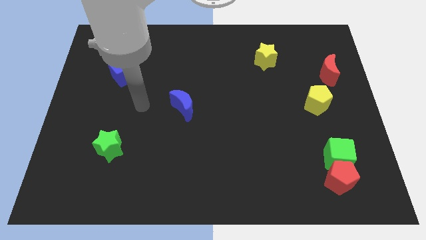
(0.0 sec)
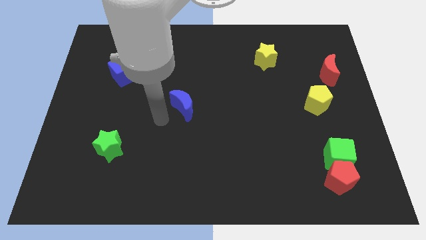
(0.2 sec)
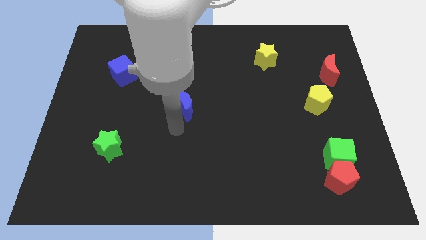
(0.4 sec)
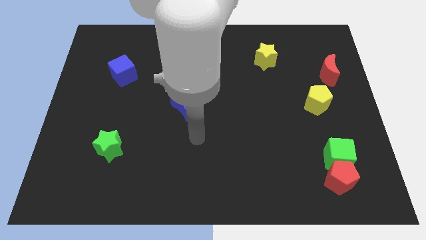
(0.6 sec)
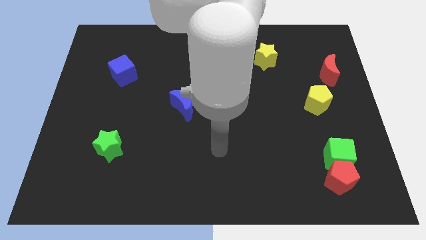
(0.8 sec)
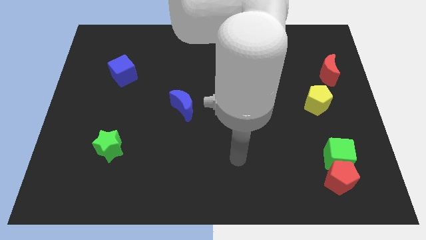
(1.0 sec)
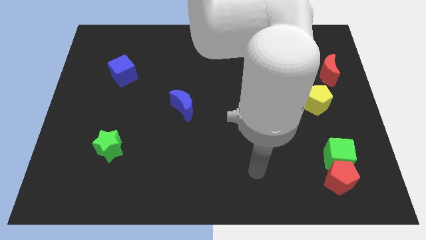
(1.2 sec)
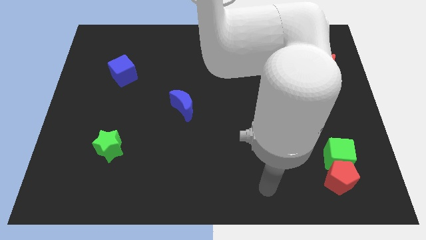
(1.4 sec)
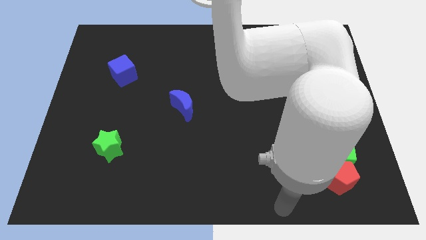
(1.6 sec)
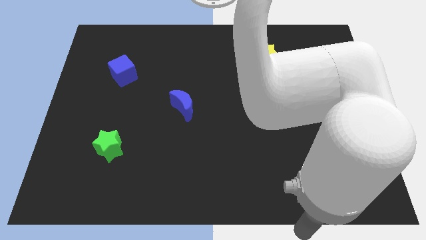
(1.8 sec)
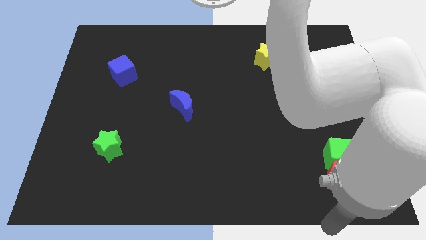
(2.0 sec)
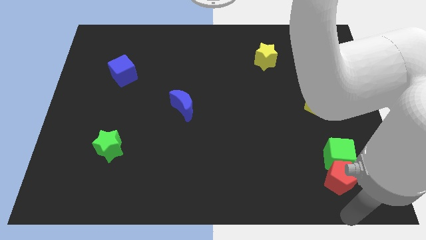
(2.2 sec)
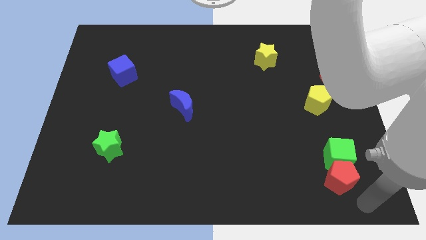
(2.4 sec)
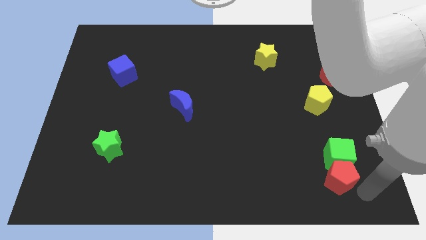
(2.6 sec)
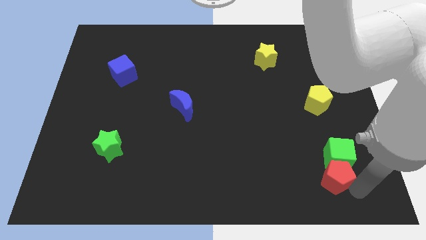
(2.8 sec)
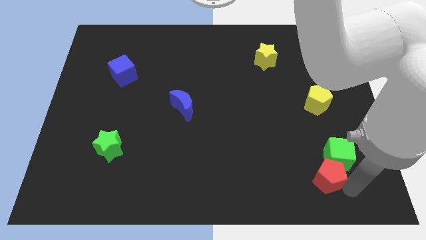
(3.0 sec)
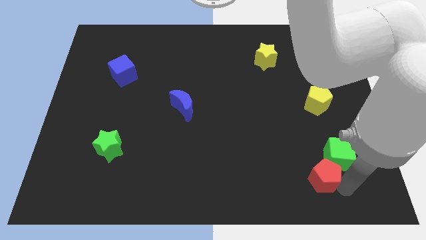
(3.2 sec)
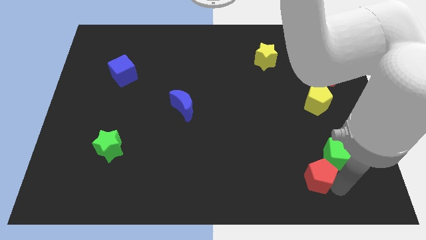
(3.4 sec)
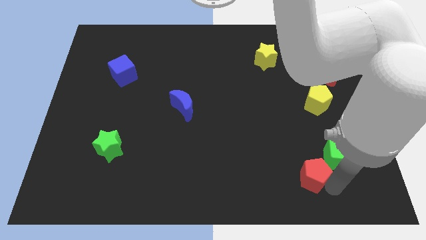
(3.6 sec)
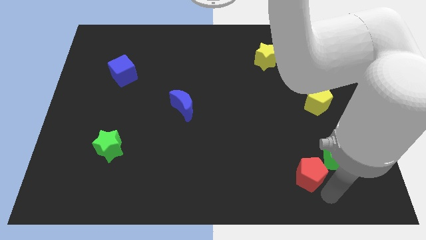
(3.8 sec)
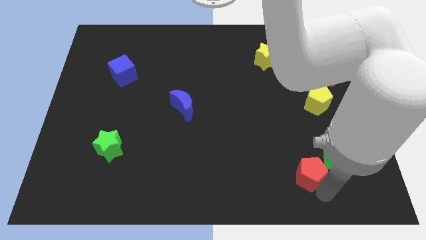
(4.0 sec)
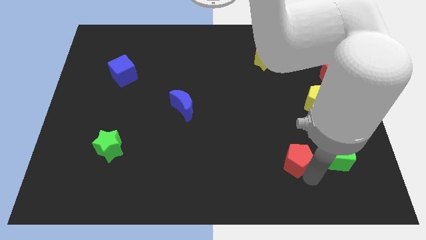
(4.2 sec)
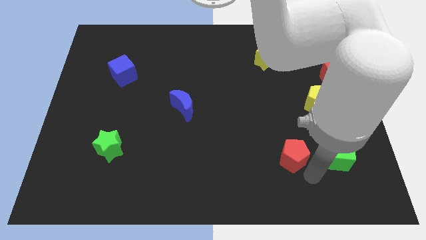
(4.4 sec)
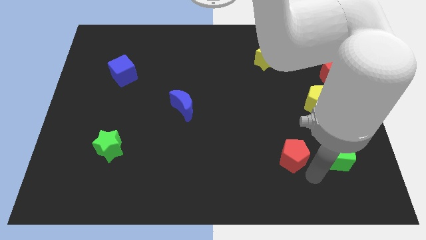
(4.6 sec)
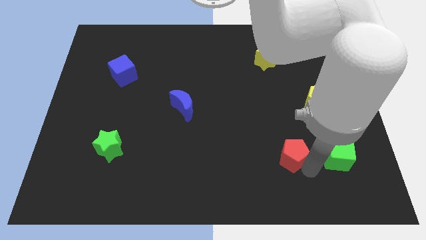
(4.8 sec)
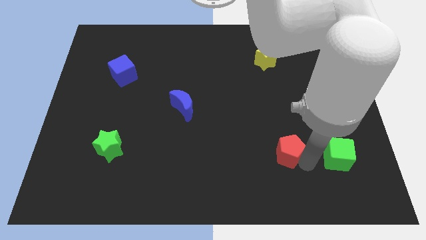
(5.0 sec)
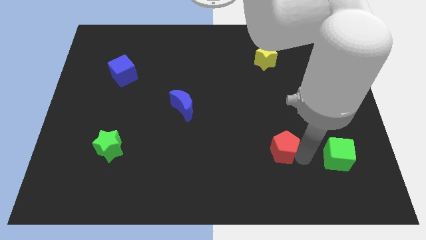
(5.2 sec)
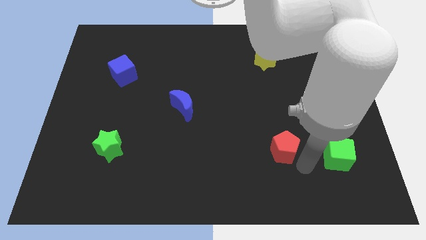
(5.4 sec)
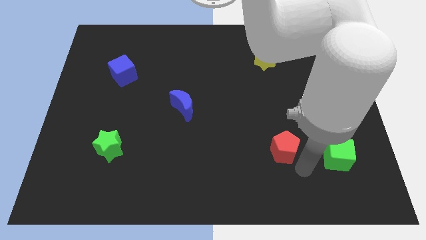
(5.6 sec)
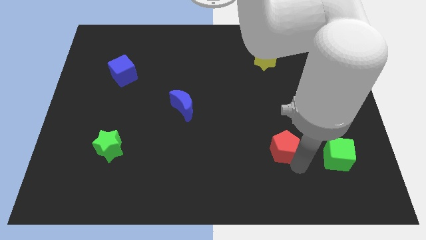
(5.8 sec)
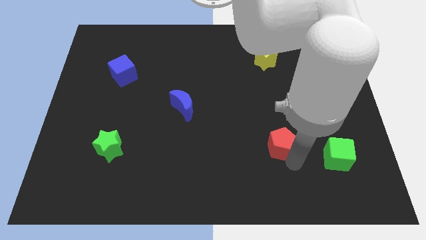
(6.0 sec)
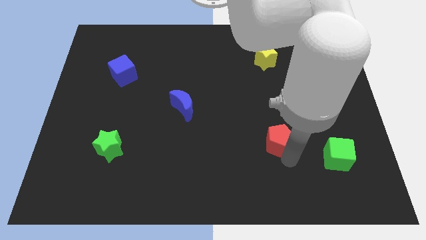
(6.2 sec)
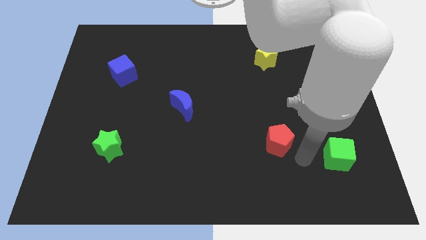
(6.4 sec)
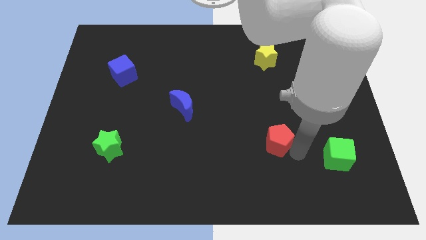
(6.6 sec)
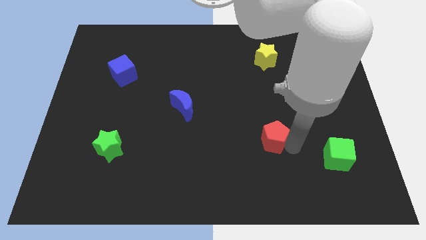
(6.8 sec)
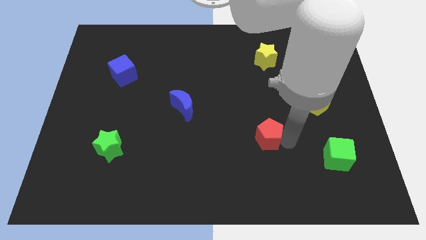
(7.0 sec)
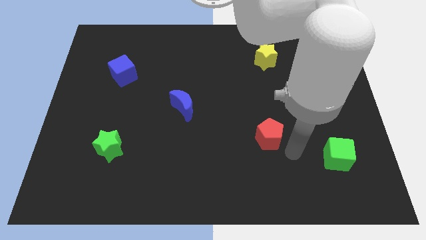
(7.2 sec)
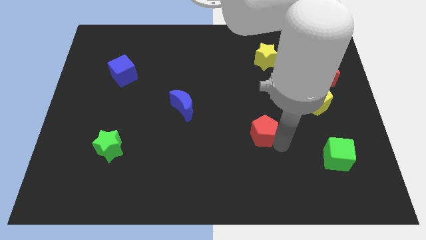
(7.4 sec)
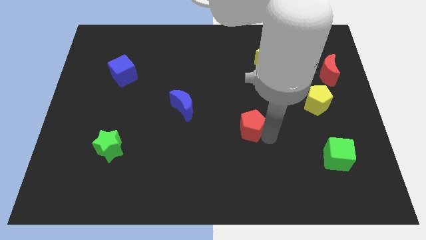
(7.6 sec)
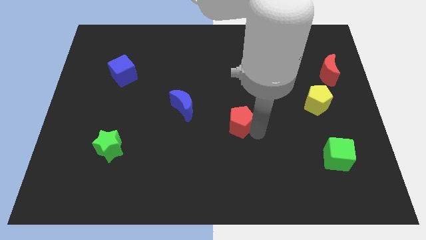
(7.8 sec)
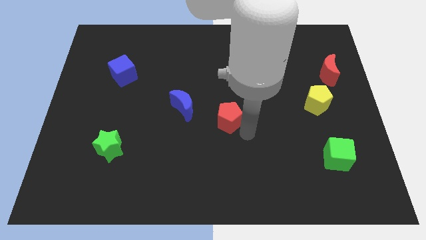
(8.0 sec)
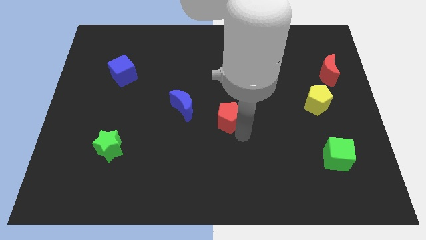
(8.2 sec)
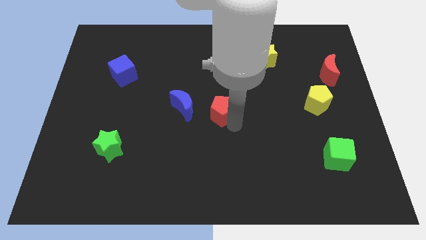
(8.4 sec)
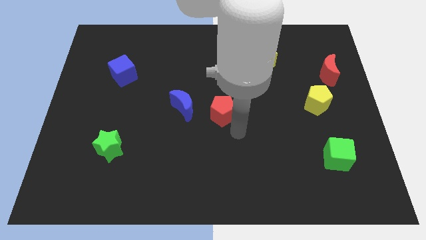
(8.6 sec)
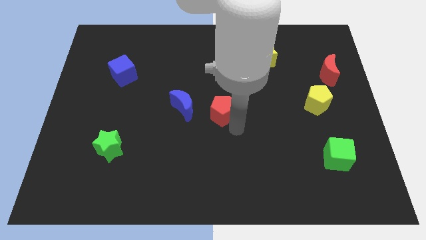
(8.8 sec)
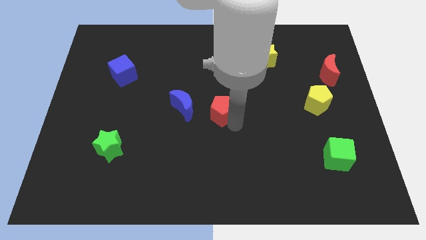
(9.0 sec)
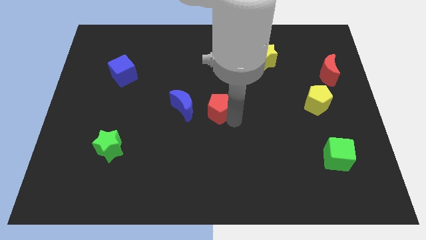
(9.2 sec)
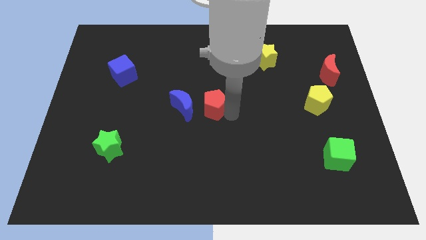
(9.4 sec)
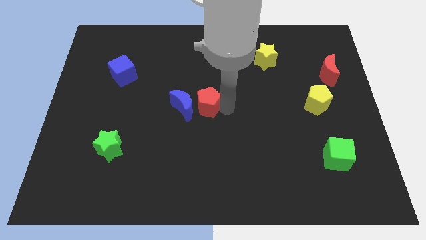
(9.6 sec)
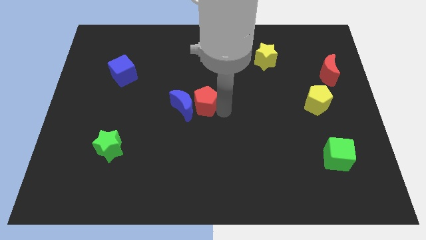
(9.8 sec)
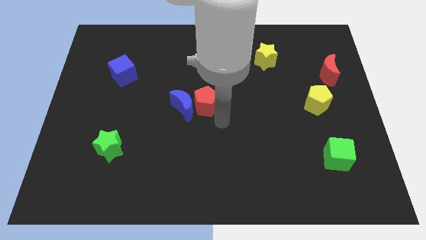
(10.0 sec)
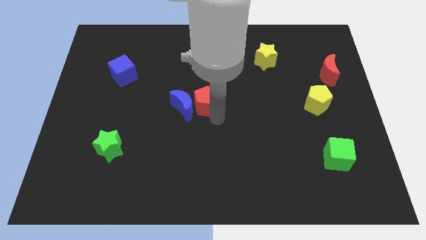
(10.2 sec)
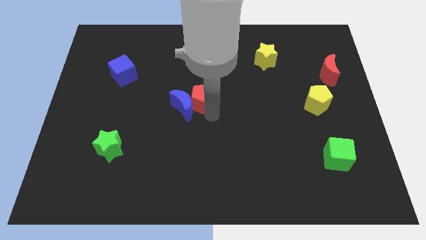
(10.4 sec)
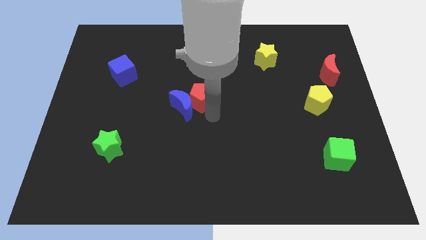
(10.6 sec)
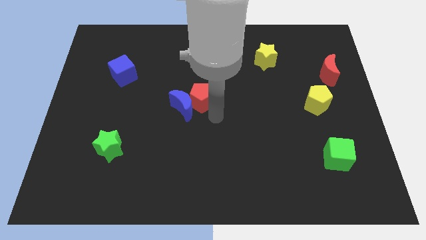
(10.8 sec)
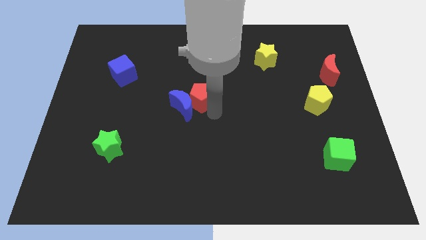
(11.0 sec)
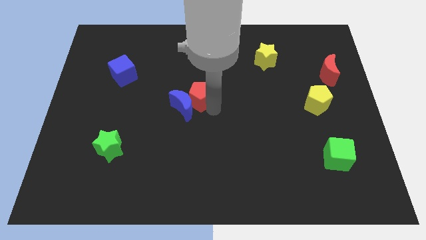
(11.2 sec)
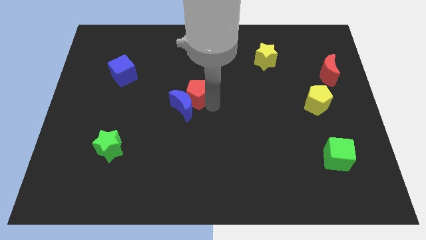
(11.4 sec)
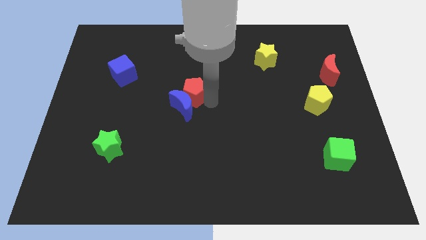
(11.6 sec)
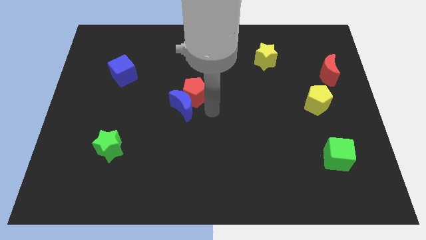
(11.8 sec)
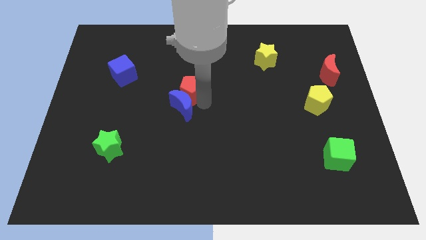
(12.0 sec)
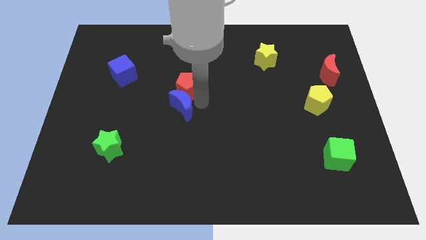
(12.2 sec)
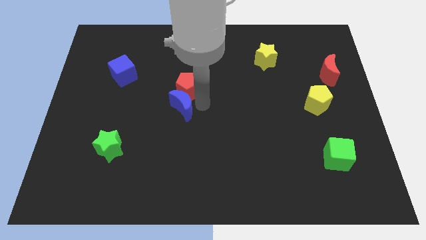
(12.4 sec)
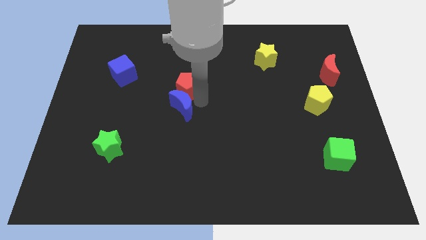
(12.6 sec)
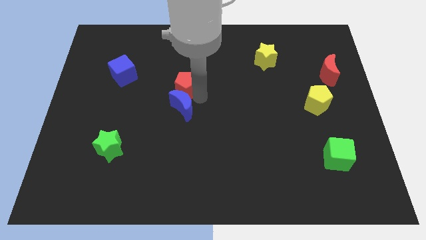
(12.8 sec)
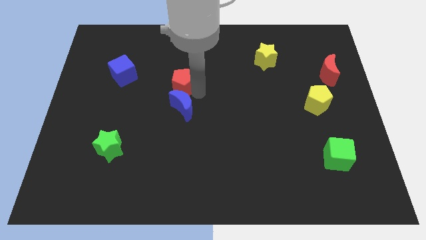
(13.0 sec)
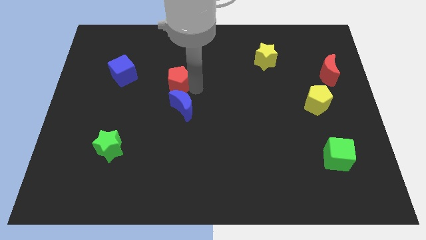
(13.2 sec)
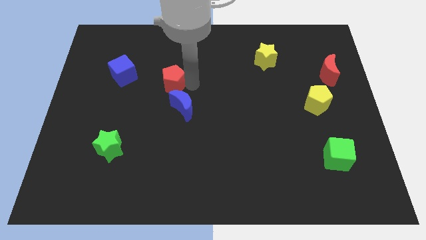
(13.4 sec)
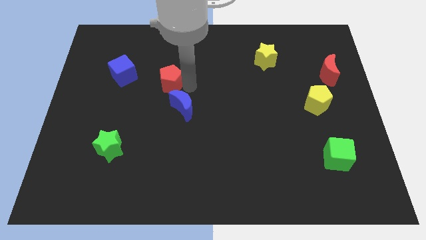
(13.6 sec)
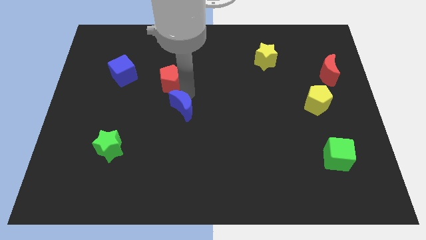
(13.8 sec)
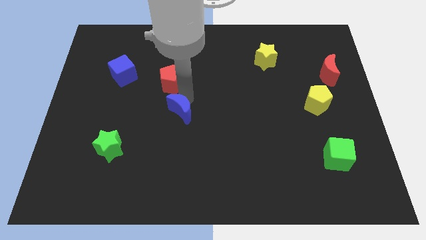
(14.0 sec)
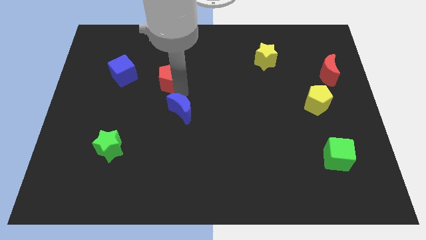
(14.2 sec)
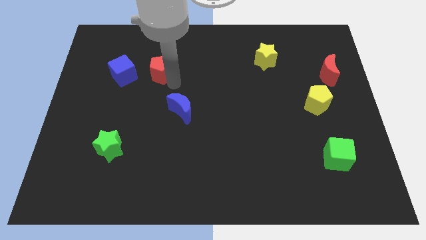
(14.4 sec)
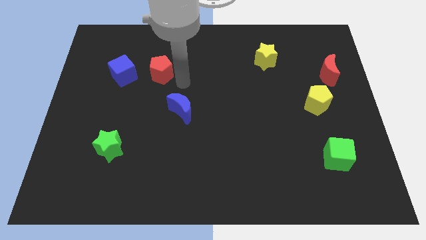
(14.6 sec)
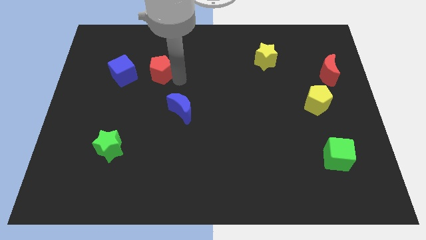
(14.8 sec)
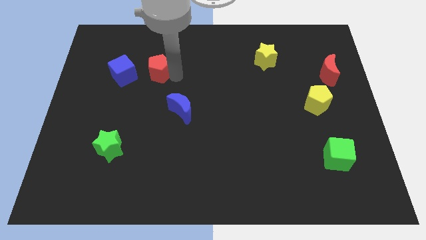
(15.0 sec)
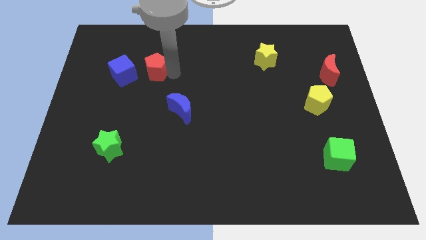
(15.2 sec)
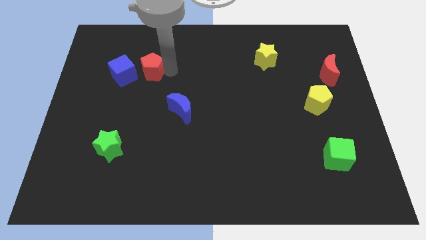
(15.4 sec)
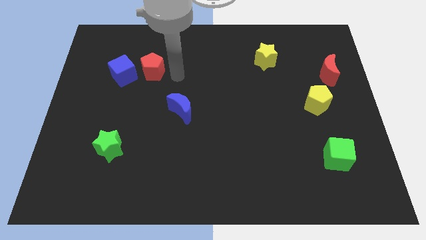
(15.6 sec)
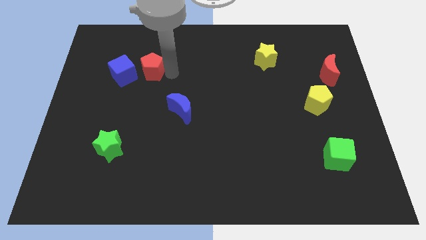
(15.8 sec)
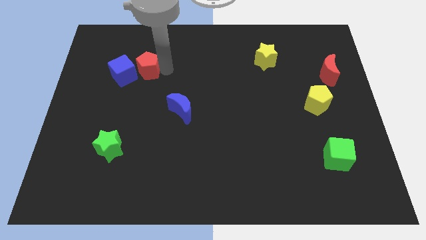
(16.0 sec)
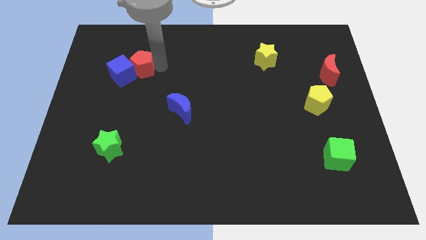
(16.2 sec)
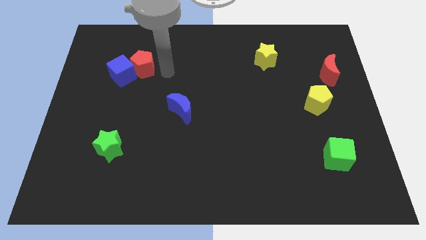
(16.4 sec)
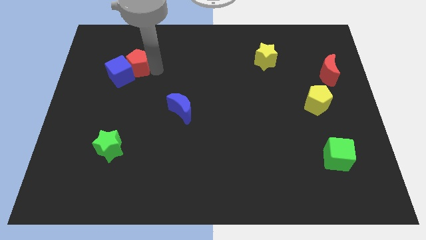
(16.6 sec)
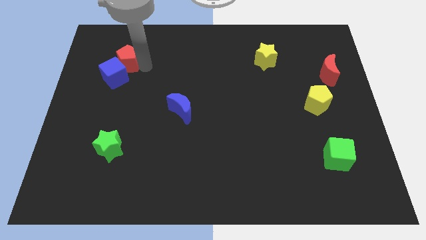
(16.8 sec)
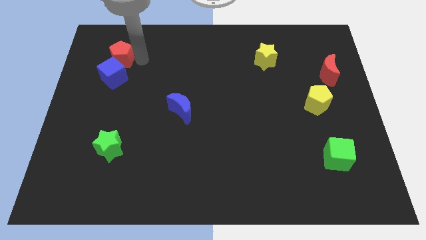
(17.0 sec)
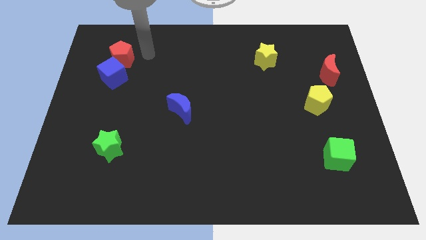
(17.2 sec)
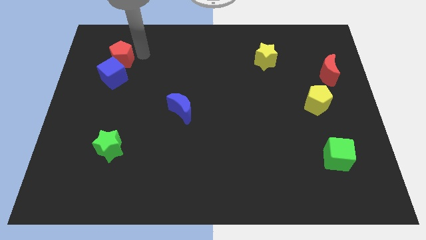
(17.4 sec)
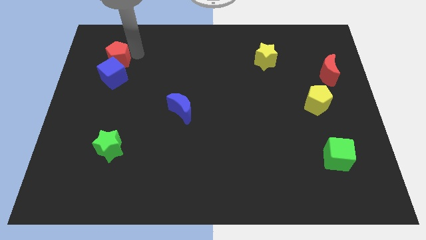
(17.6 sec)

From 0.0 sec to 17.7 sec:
put the red pentagon diagonally up and to the left of the blue cube
